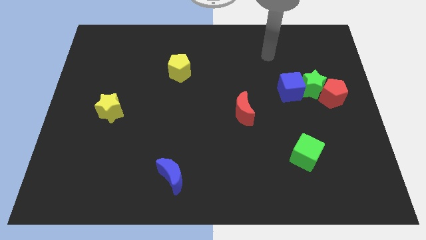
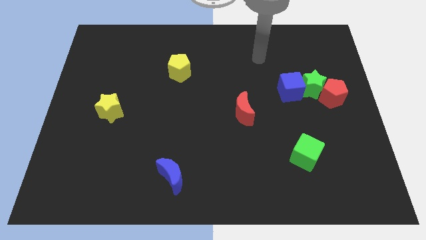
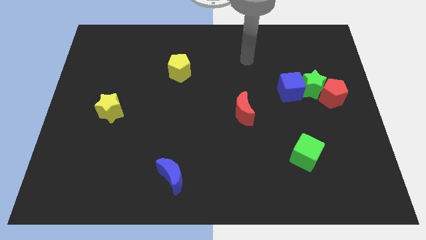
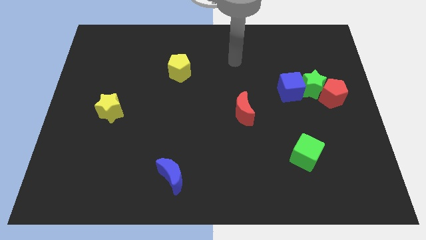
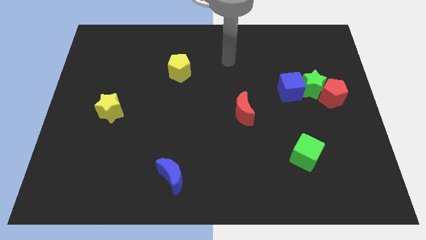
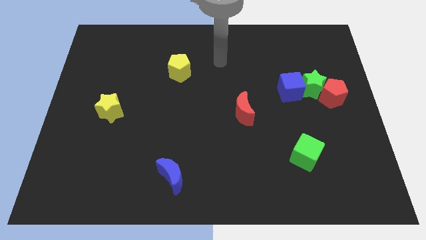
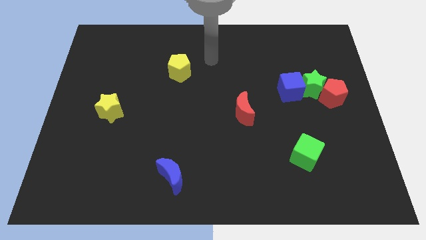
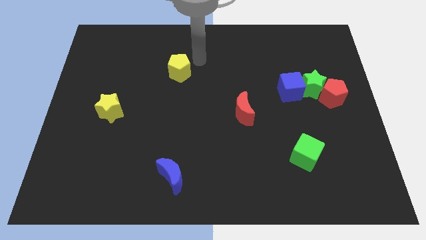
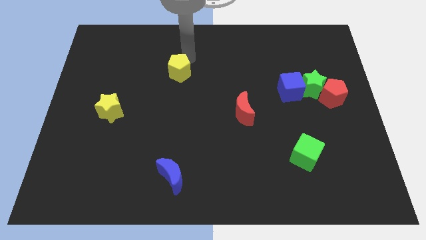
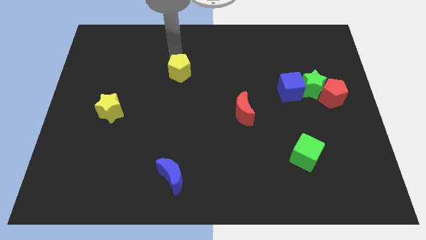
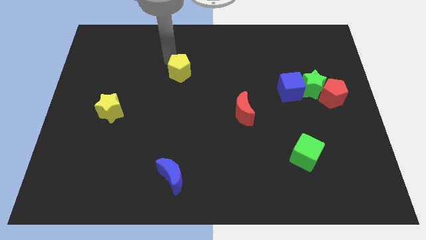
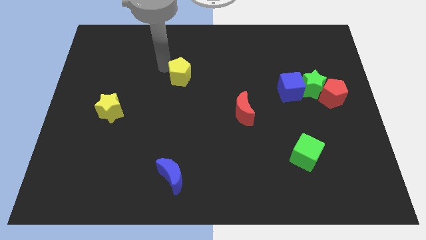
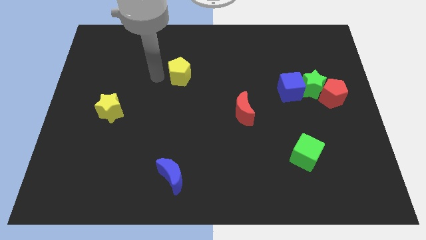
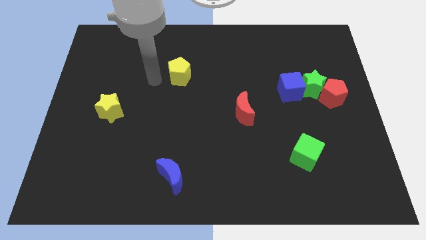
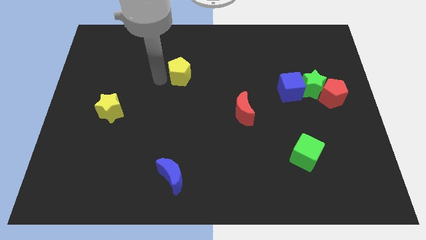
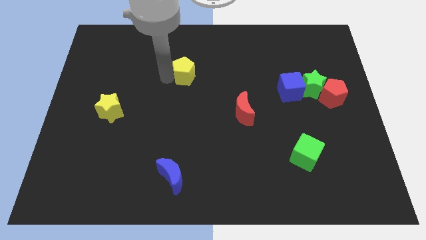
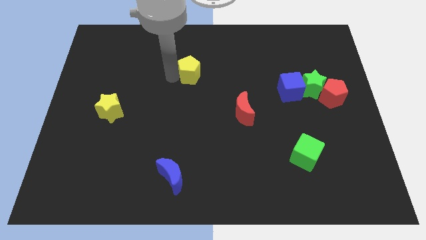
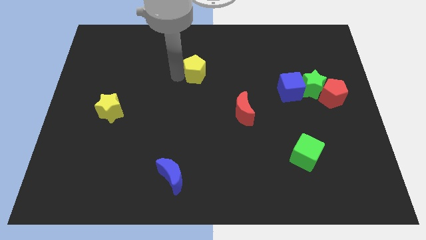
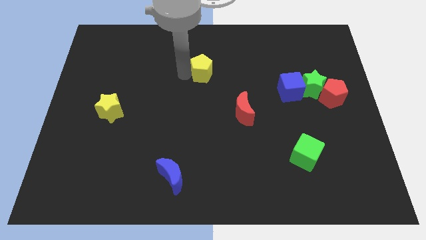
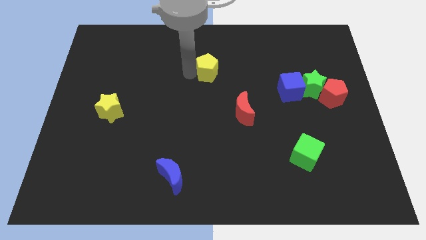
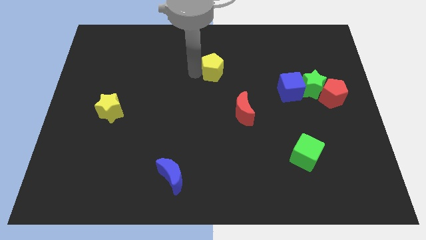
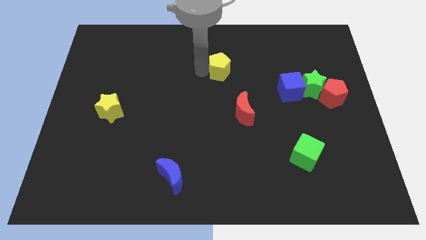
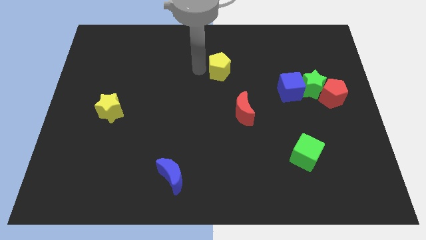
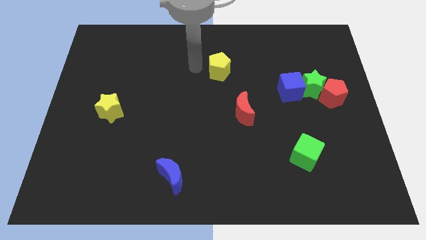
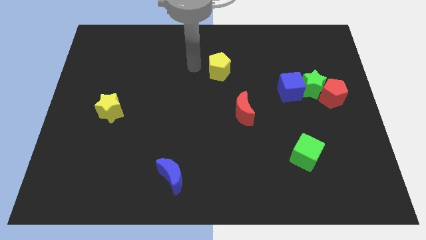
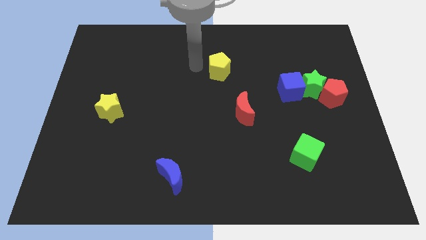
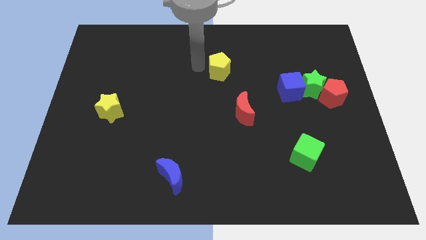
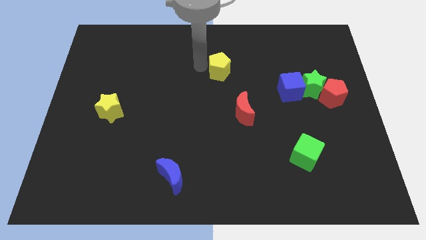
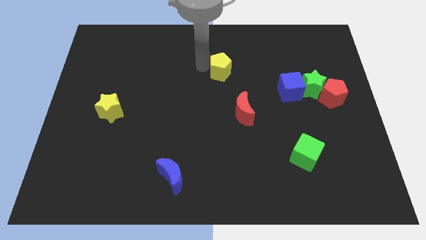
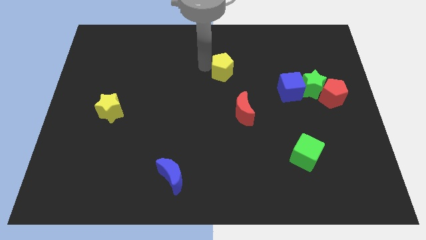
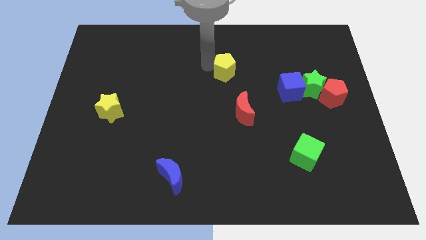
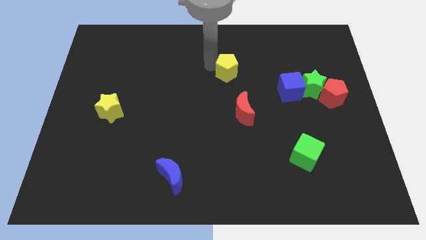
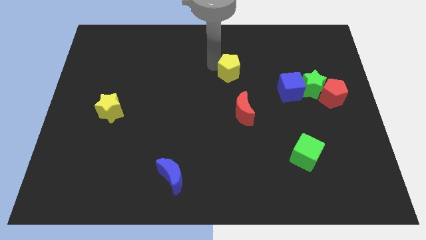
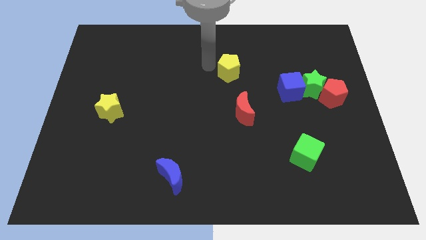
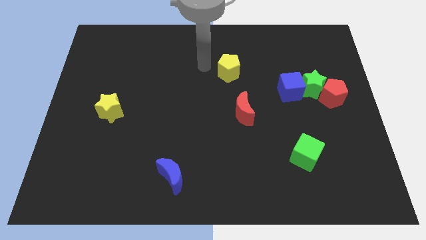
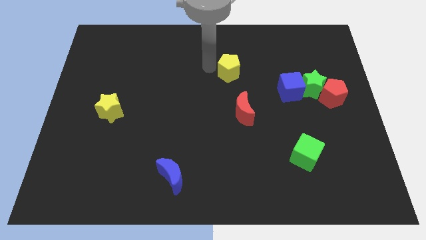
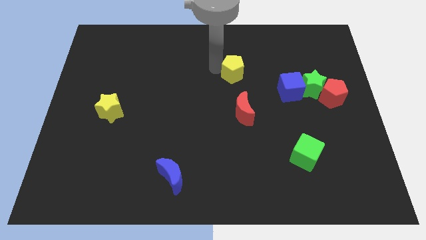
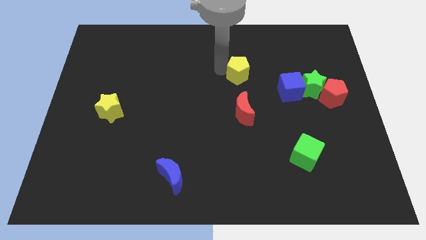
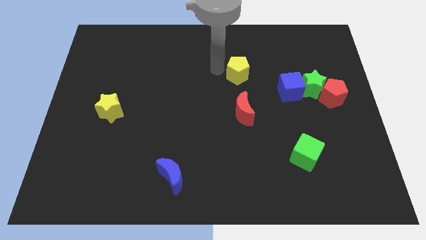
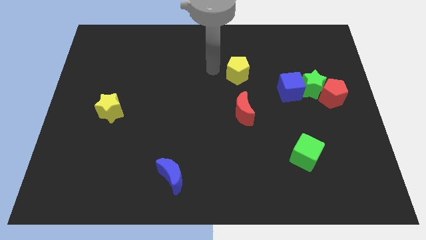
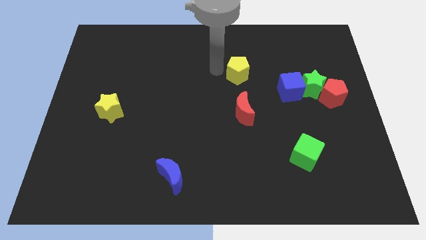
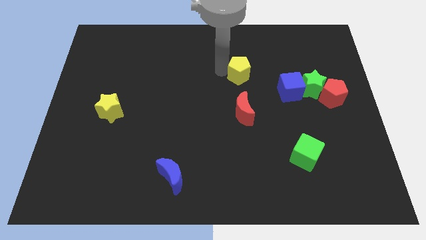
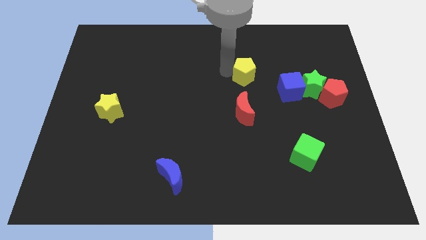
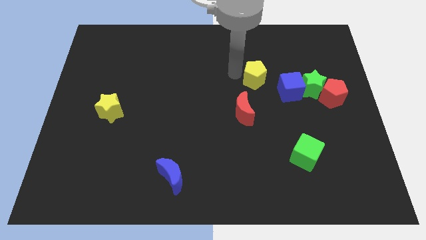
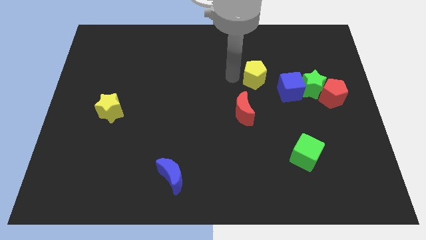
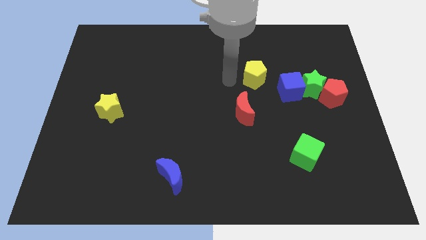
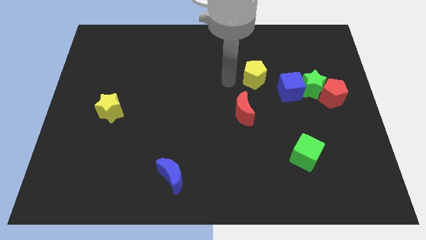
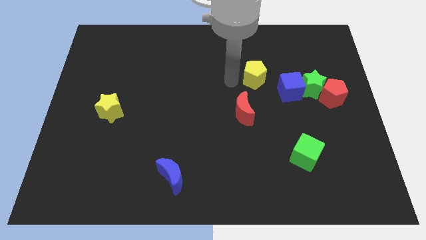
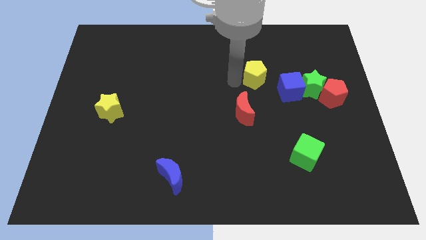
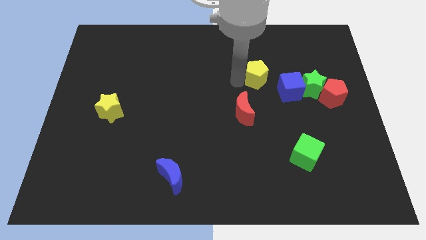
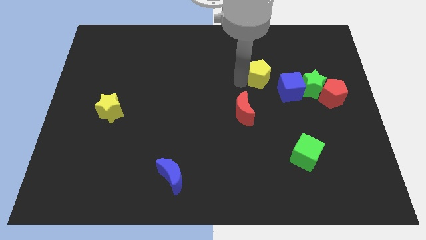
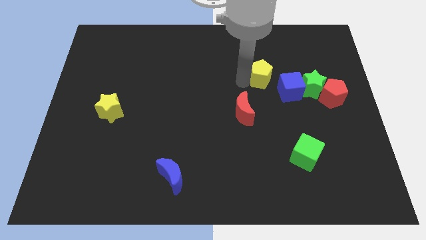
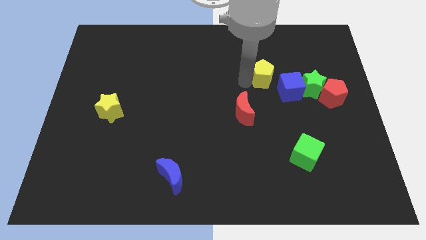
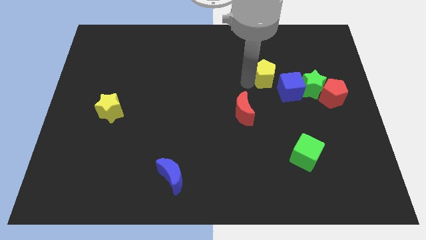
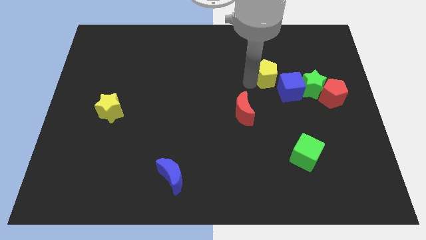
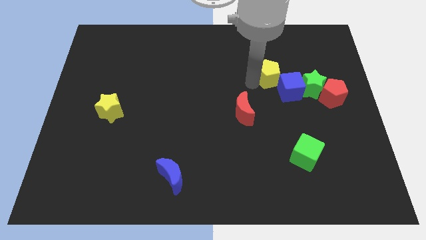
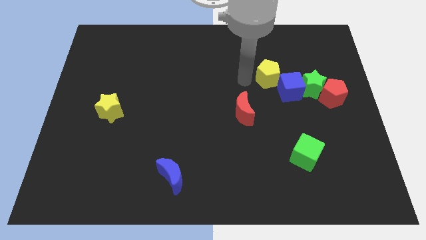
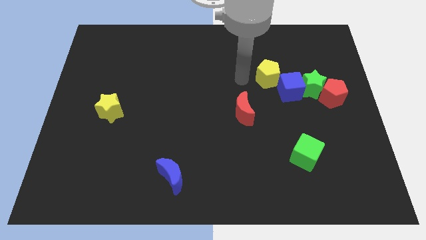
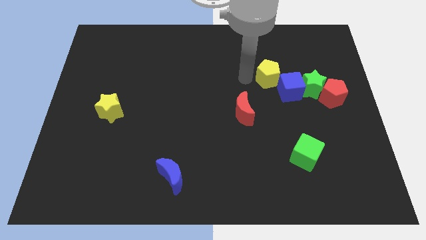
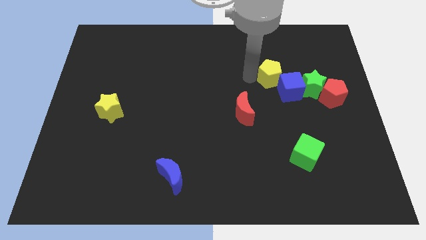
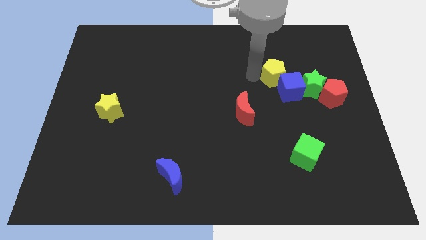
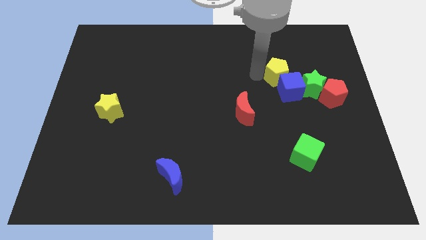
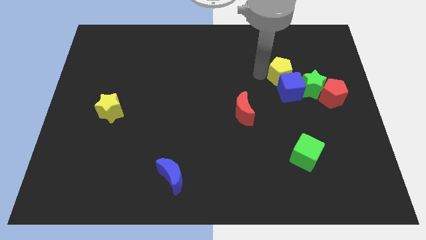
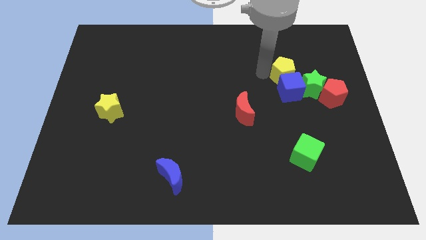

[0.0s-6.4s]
put the yellow pentagon to the top right of the blue cube

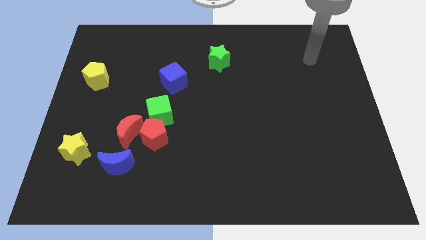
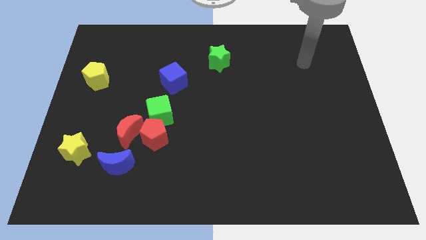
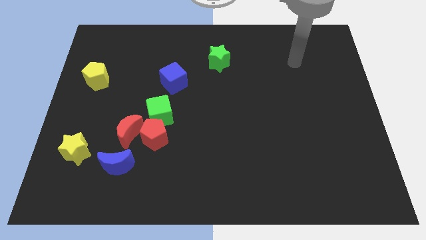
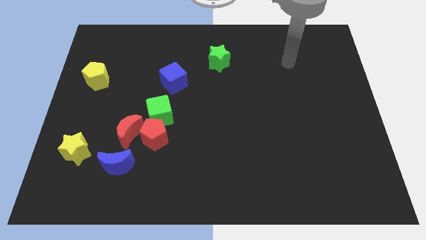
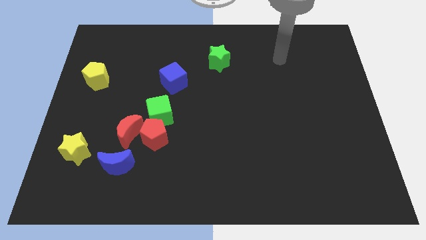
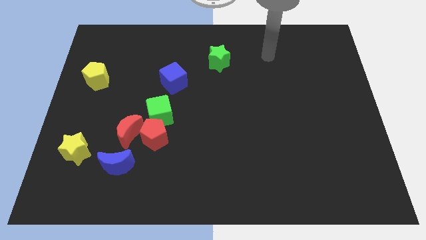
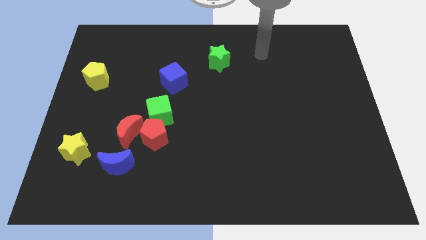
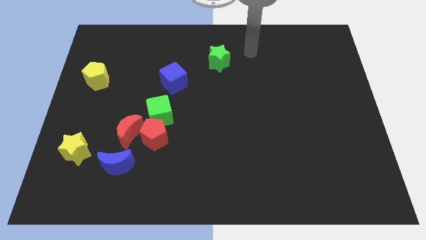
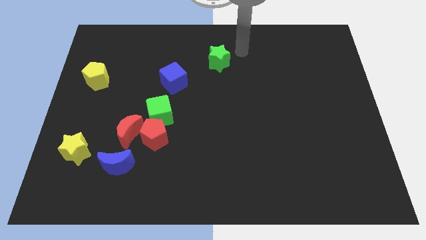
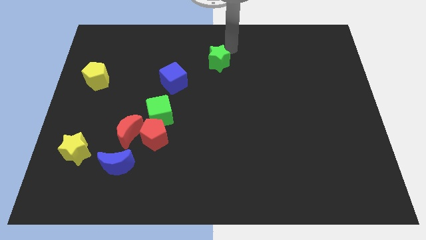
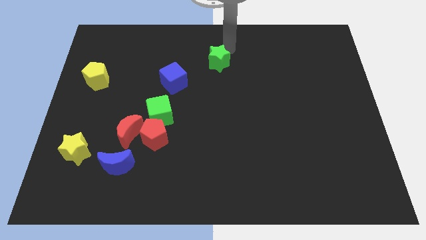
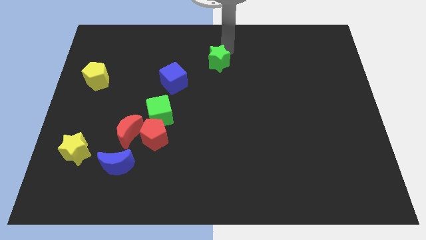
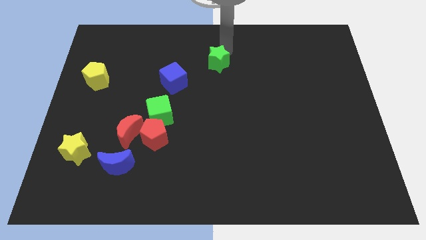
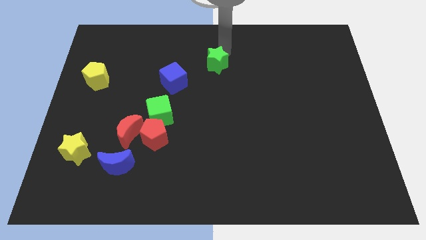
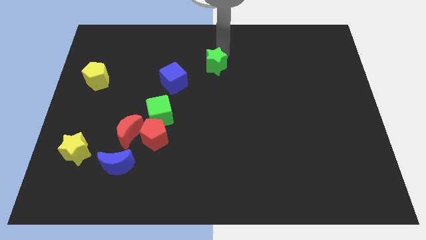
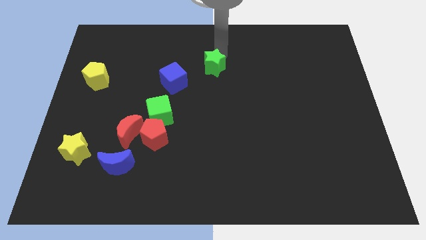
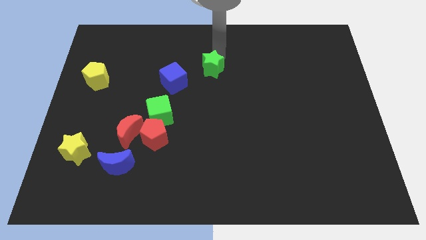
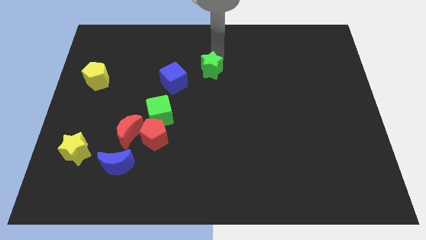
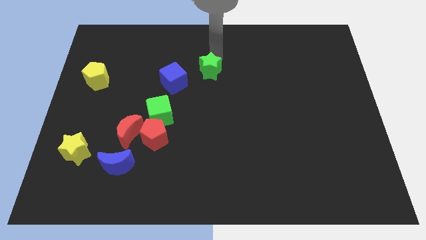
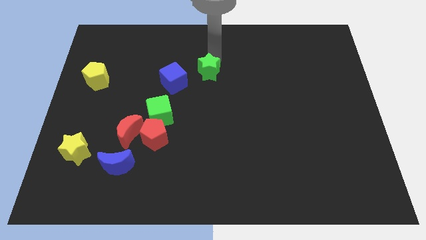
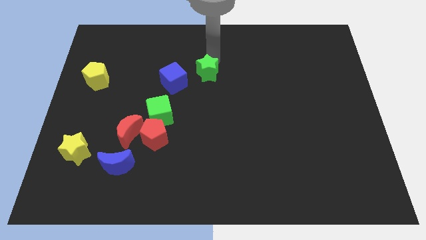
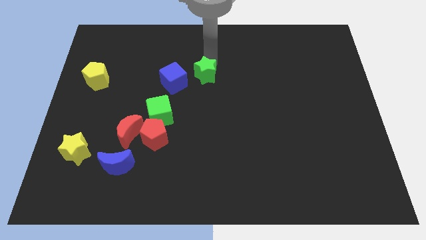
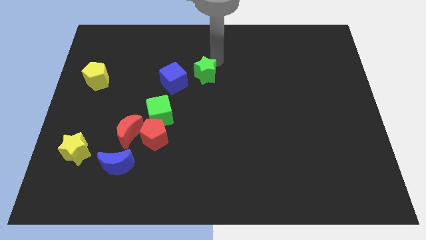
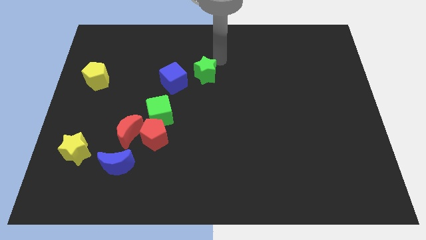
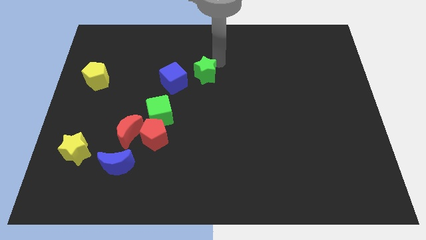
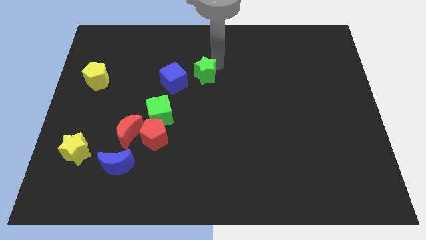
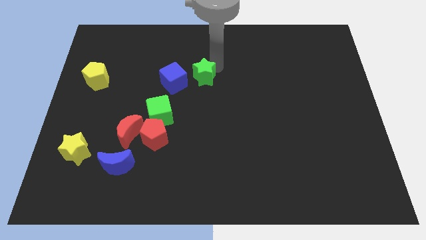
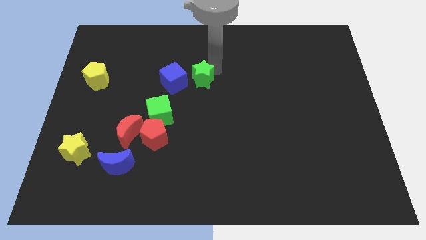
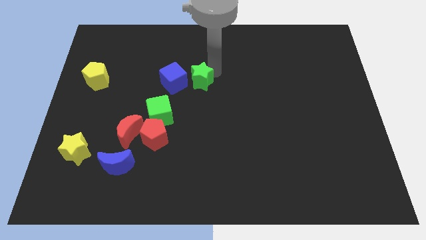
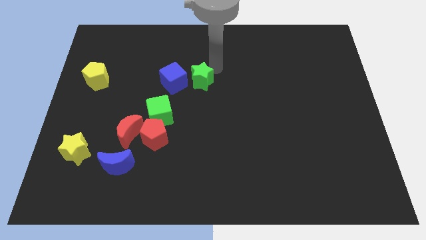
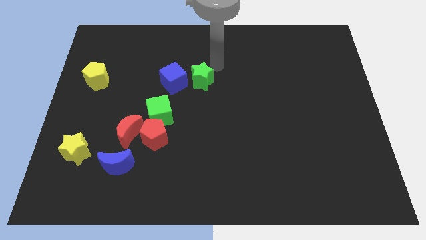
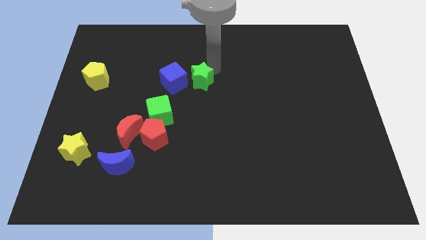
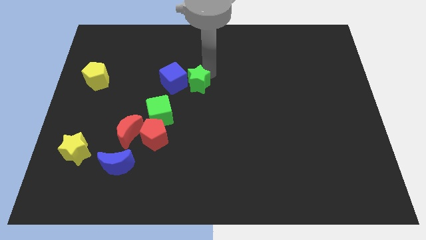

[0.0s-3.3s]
move the green star to the top right of the green cube
